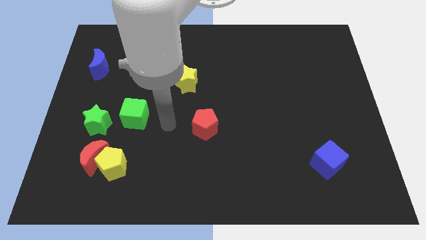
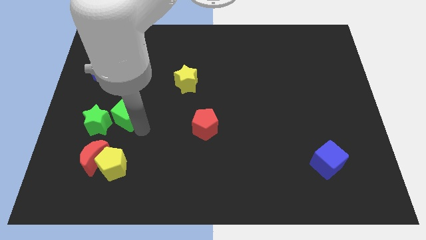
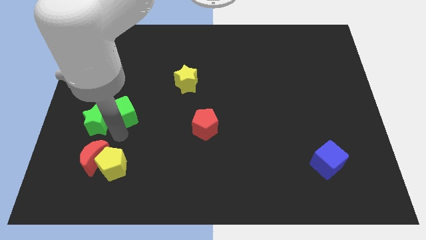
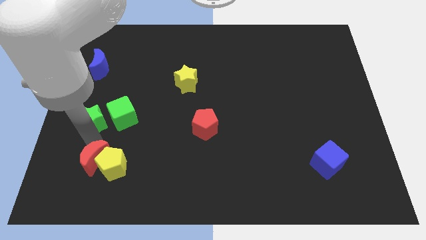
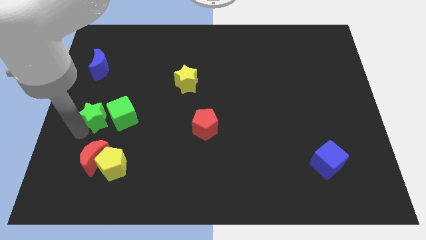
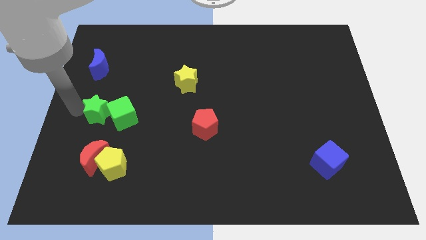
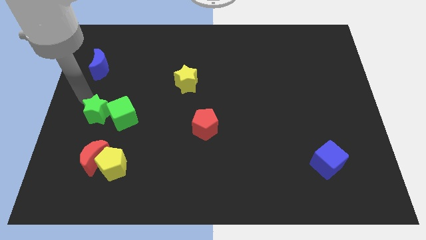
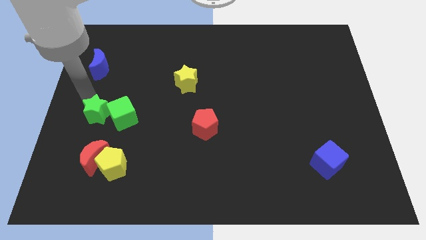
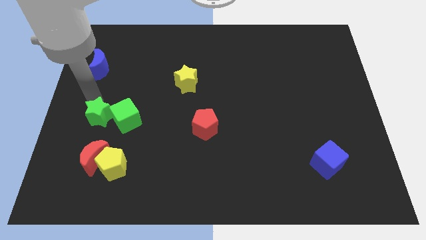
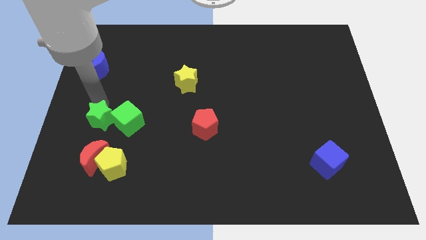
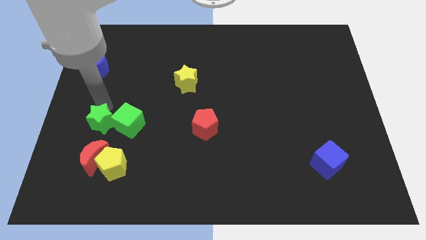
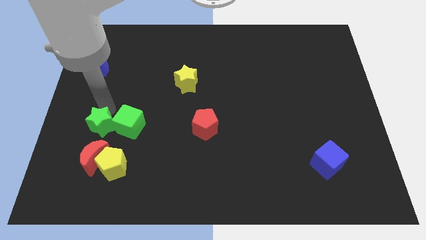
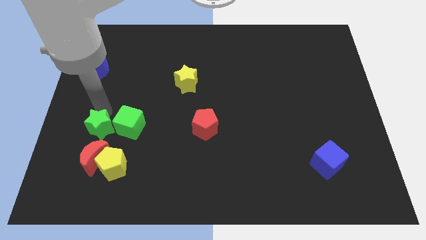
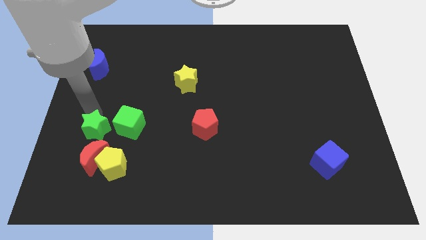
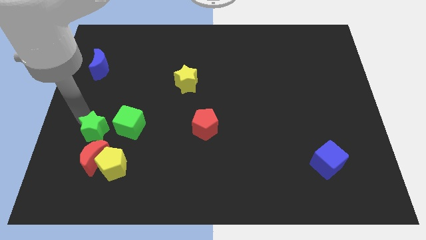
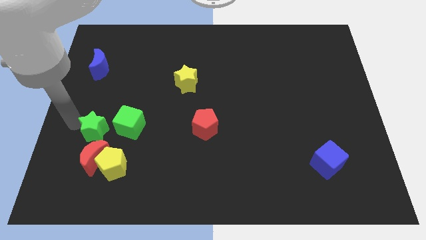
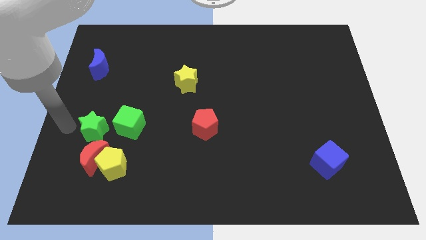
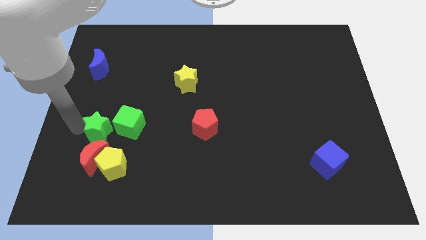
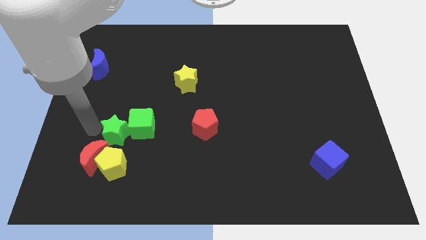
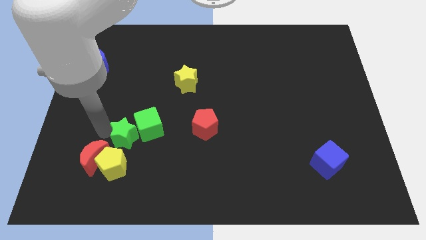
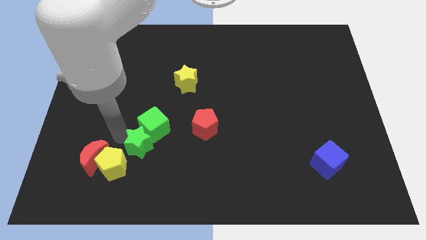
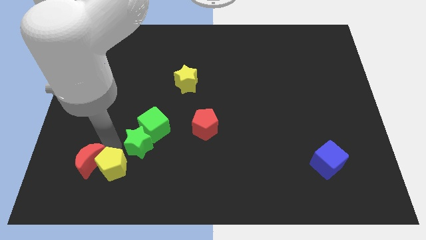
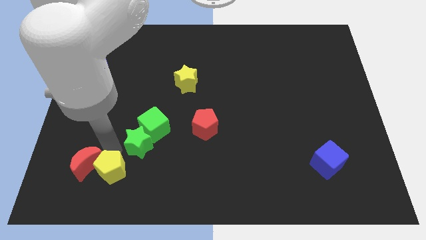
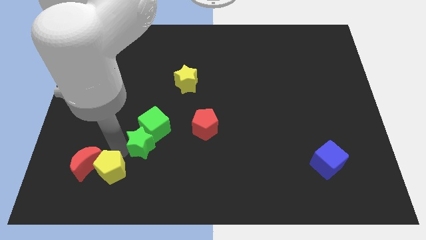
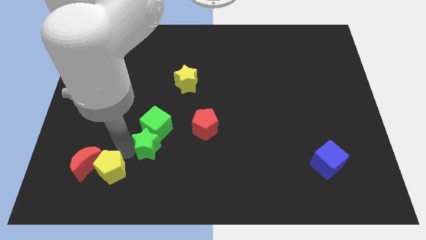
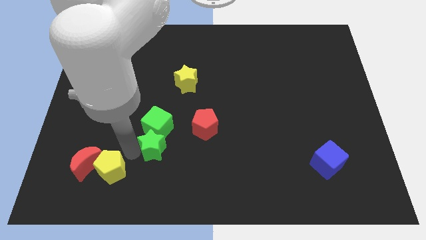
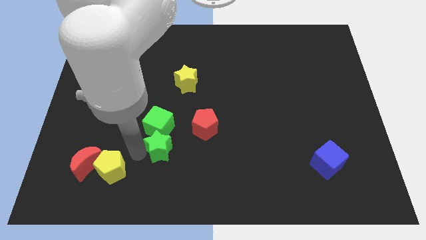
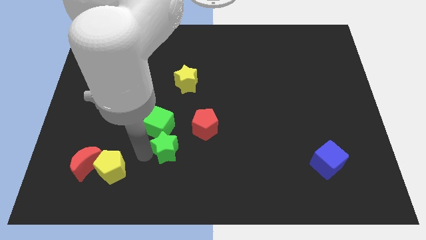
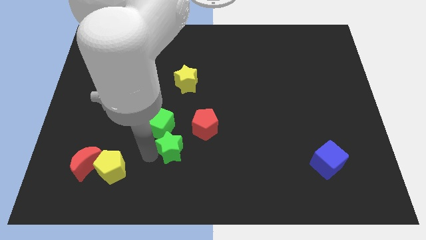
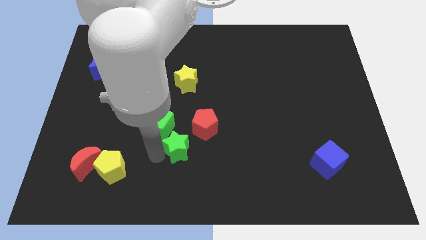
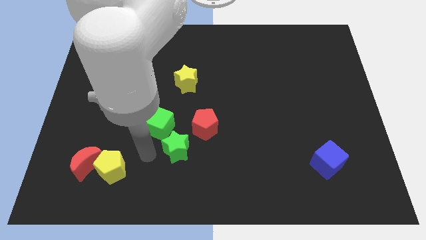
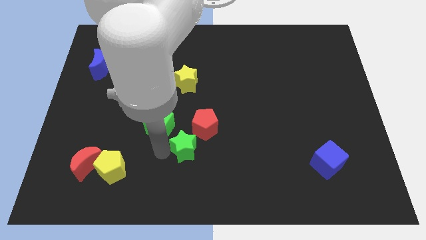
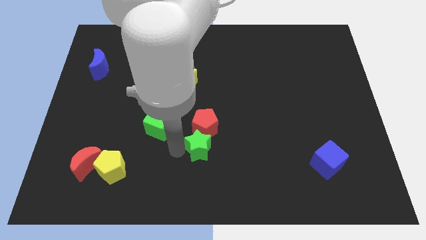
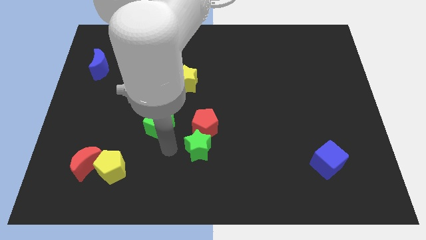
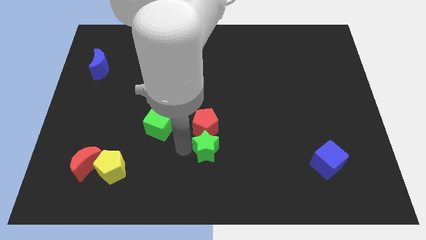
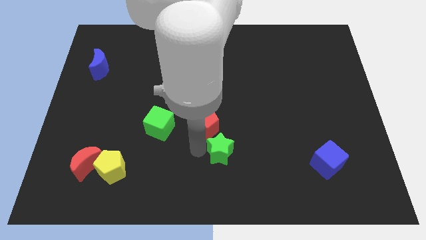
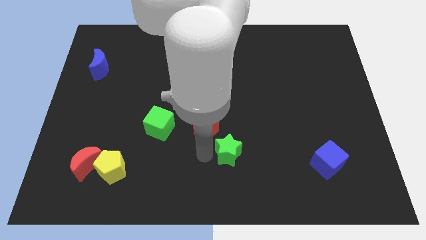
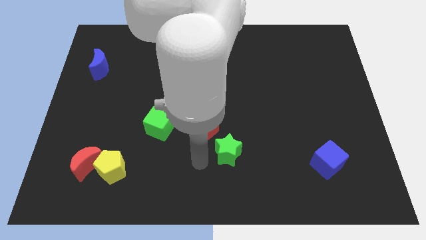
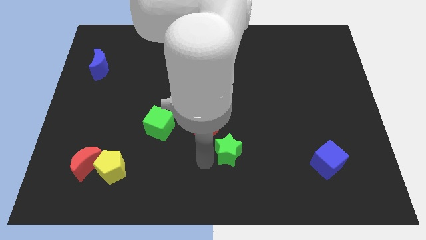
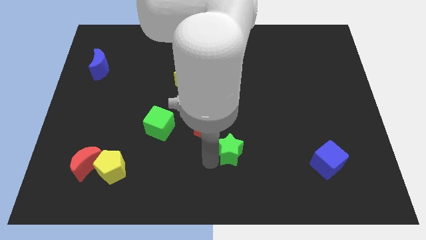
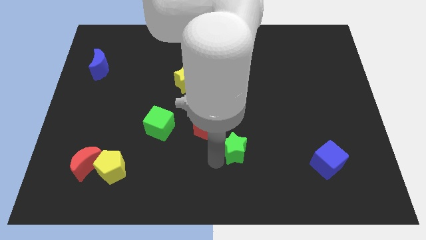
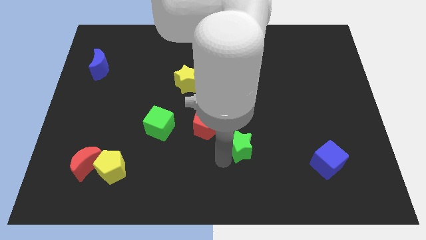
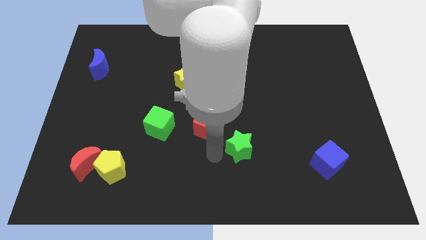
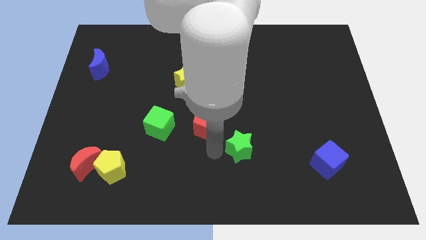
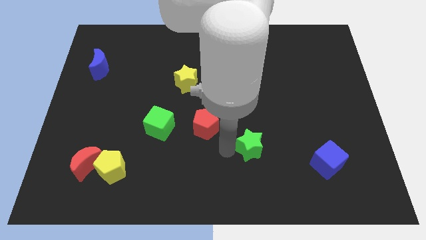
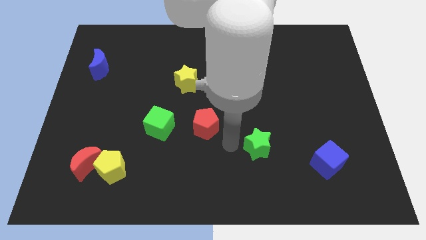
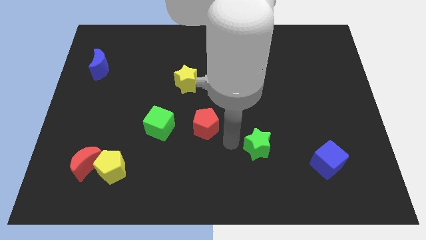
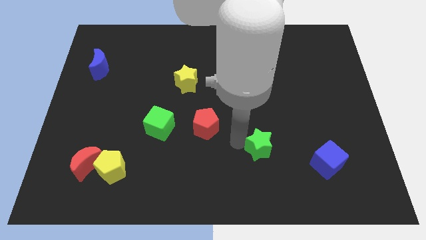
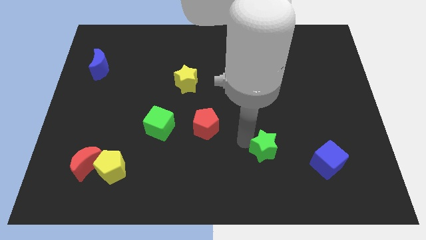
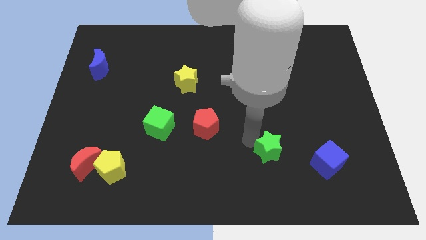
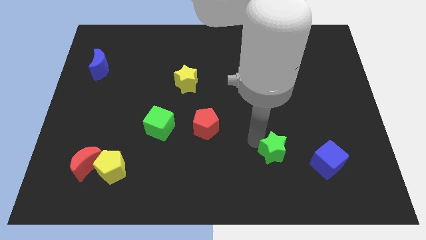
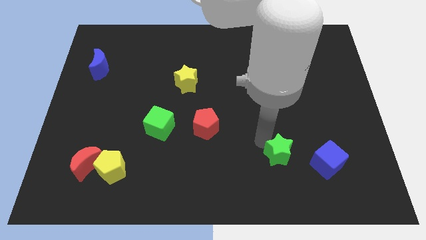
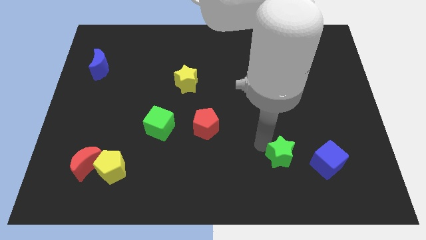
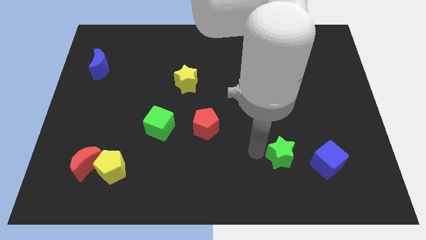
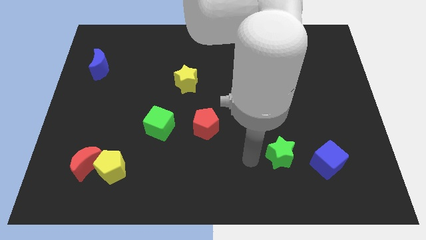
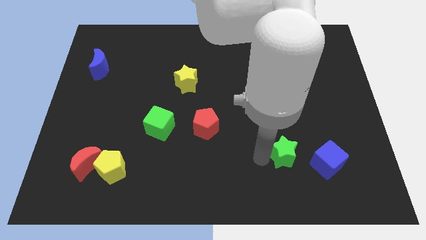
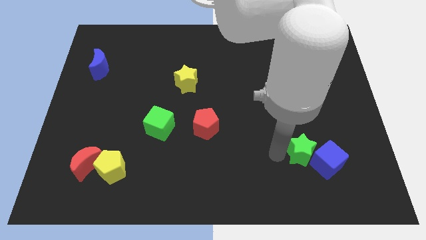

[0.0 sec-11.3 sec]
push the green star next to the blue cube

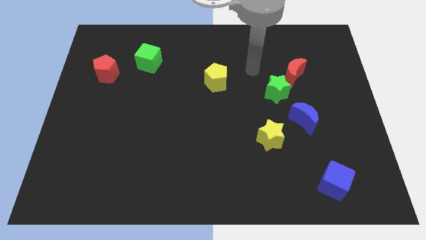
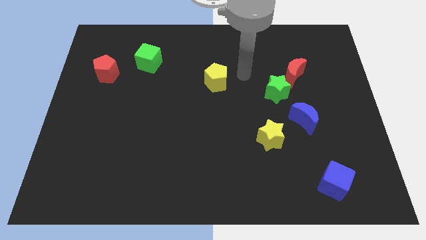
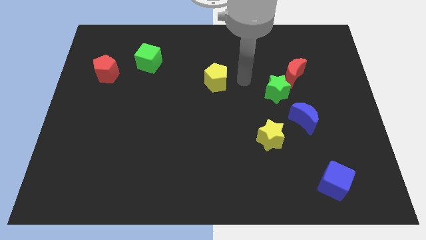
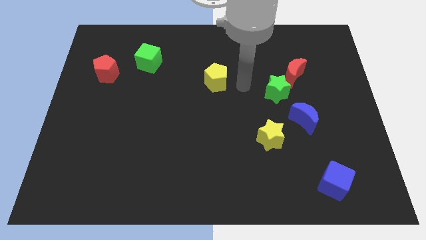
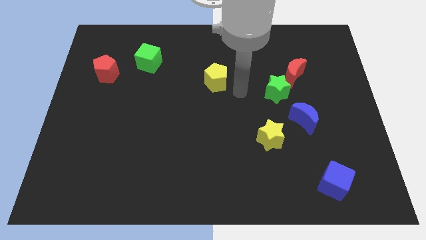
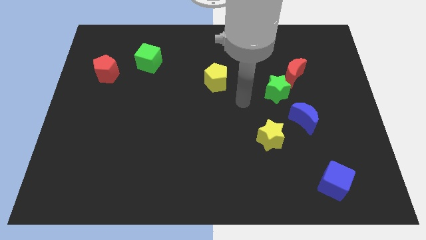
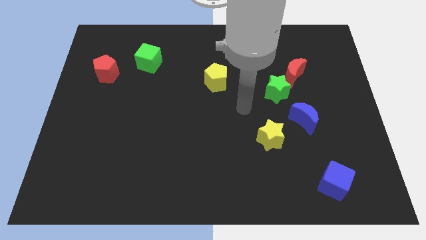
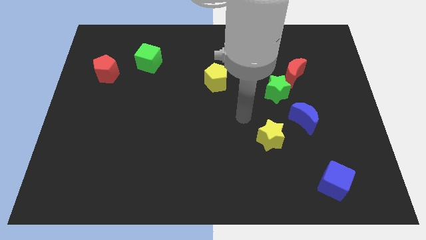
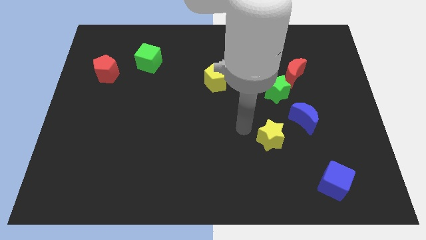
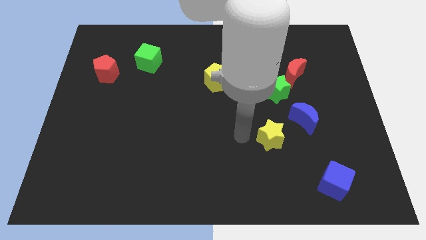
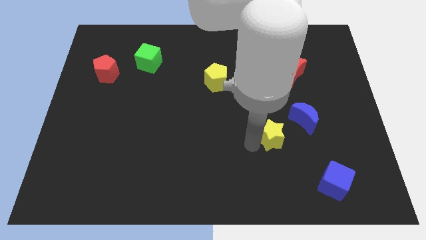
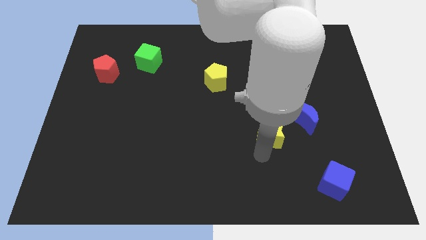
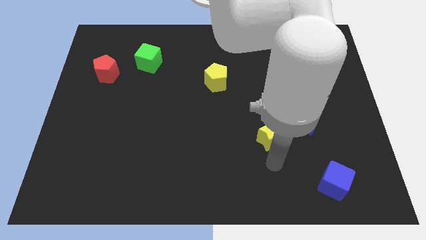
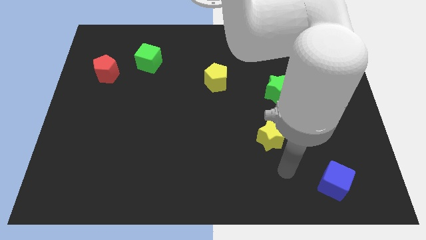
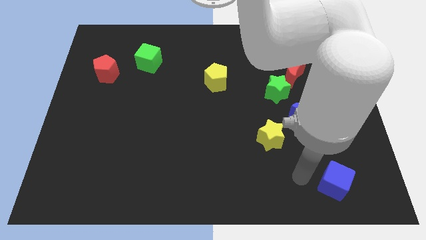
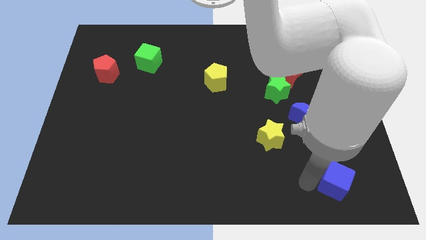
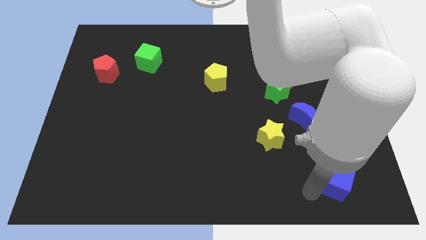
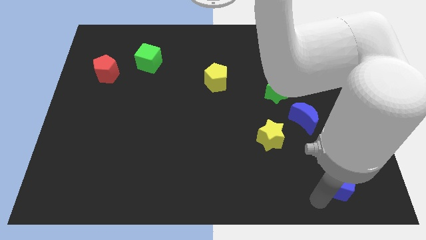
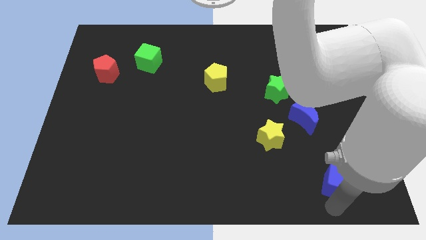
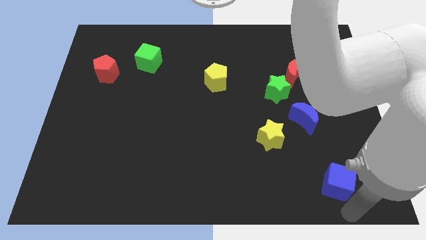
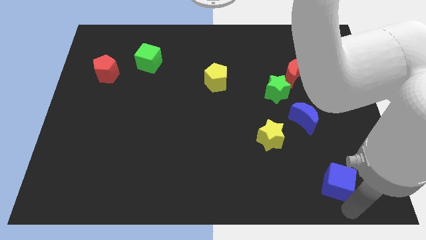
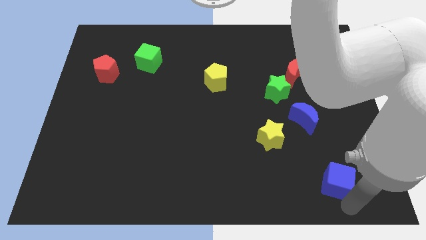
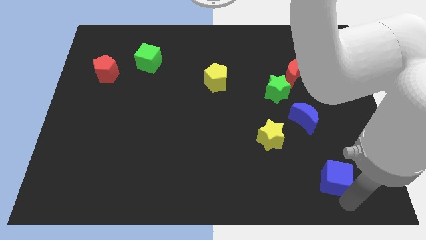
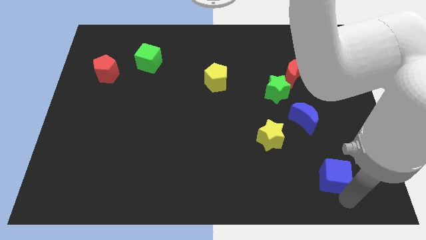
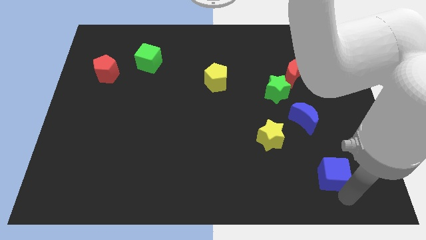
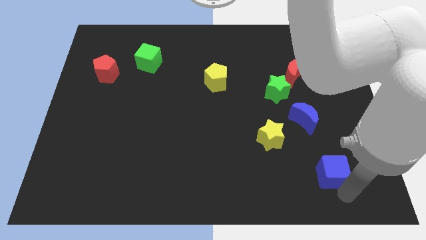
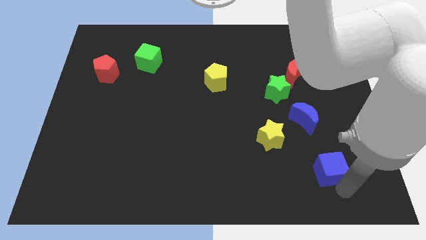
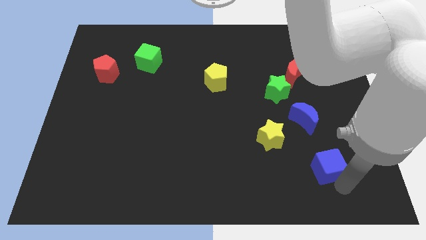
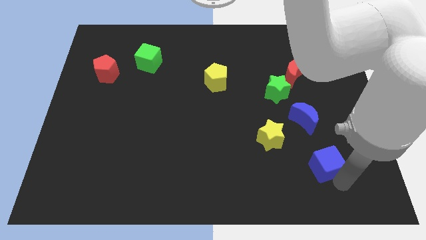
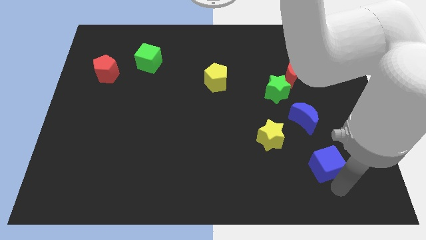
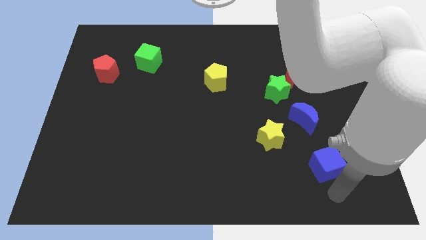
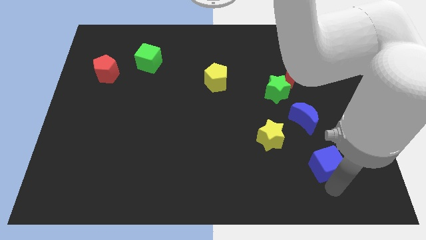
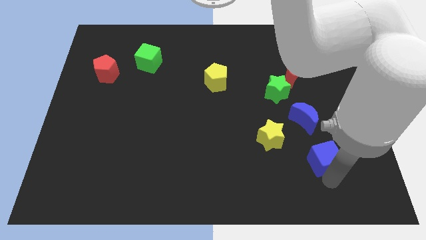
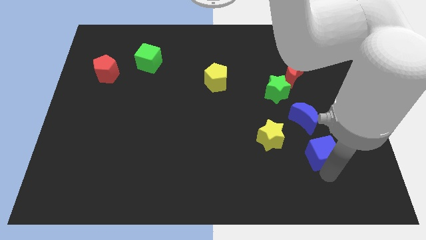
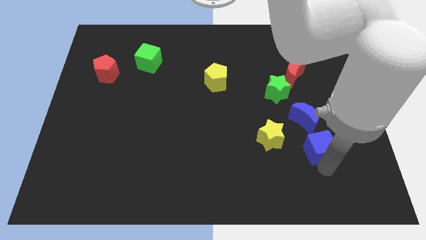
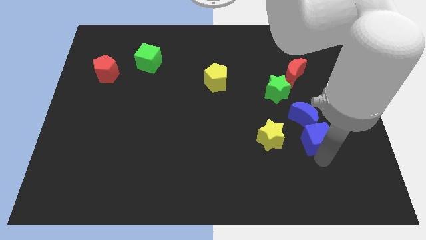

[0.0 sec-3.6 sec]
slide the blue cube to the blue moon
